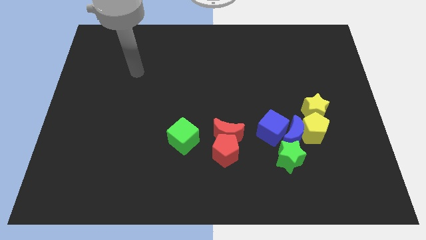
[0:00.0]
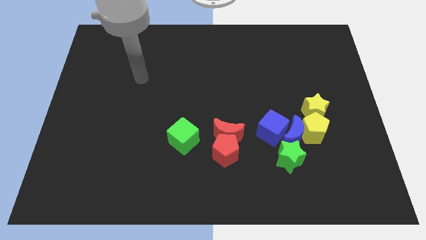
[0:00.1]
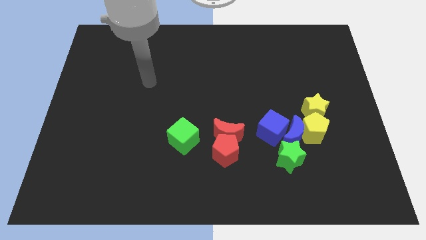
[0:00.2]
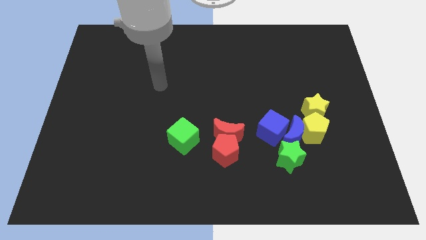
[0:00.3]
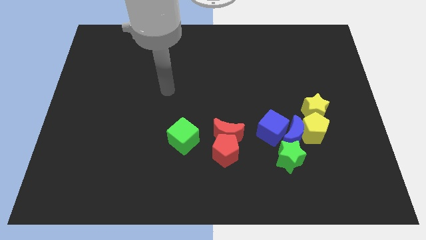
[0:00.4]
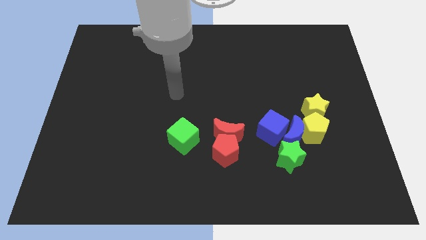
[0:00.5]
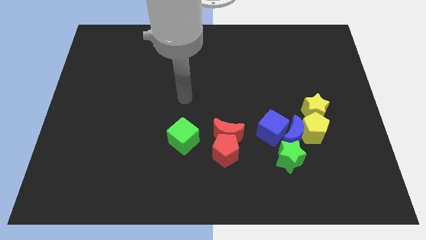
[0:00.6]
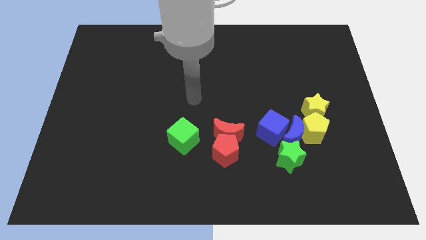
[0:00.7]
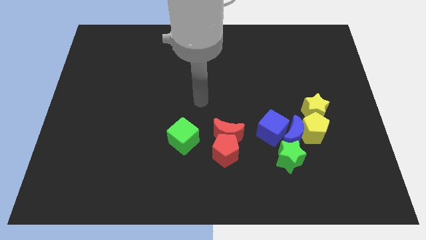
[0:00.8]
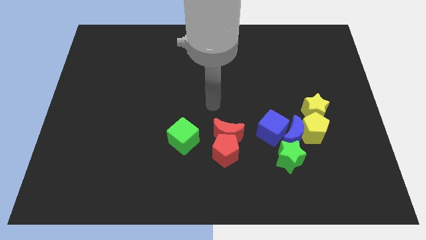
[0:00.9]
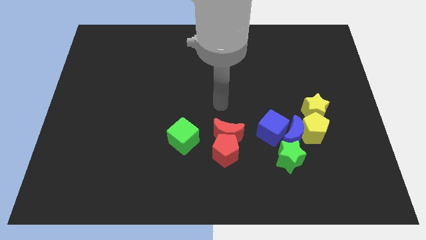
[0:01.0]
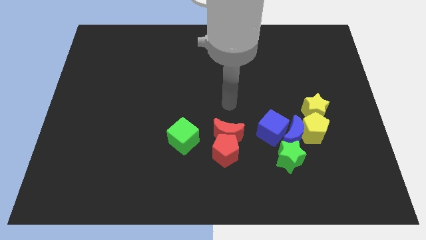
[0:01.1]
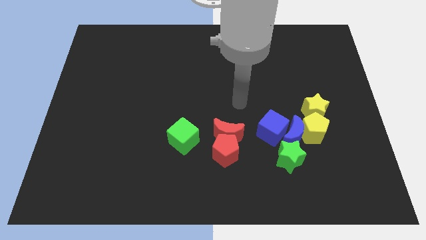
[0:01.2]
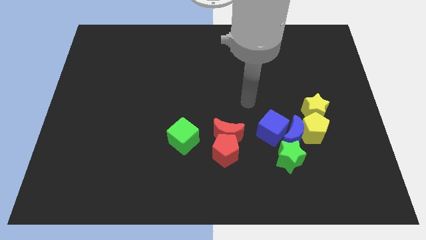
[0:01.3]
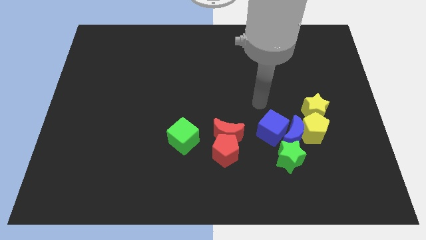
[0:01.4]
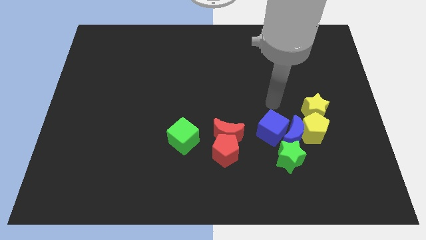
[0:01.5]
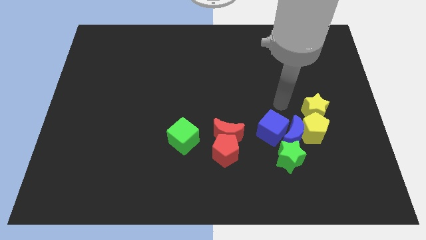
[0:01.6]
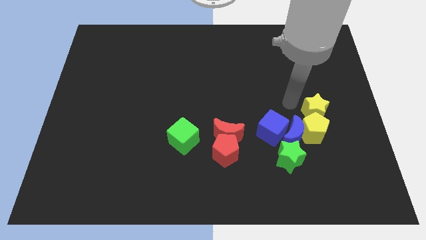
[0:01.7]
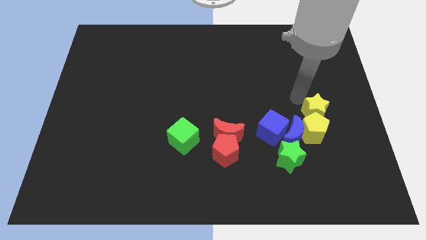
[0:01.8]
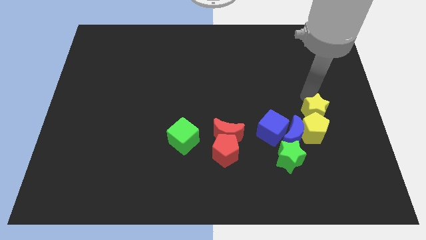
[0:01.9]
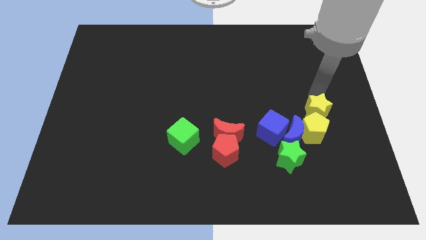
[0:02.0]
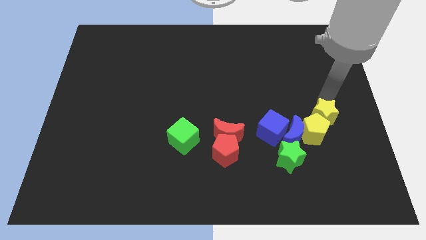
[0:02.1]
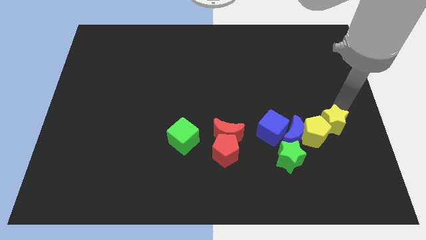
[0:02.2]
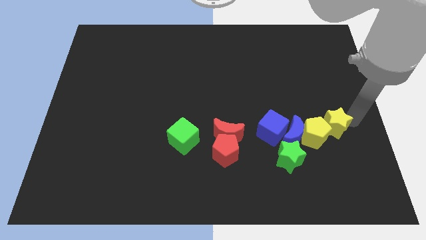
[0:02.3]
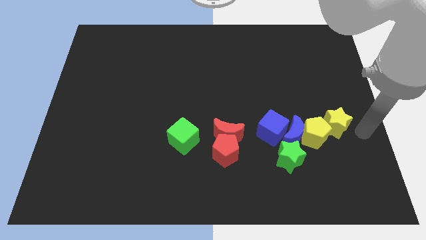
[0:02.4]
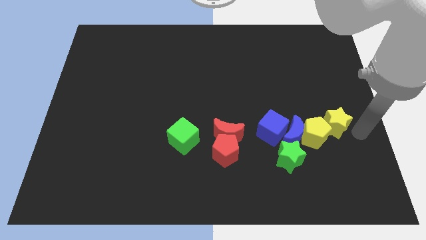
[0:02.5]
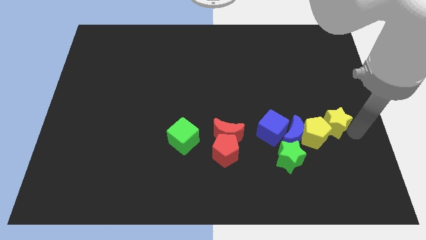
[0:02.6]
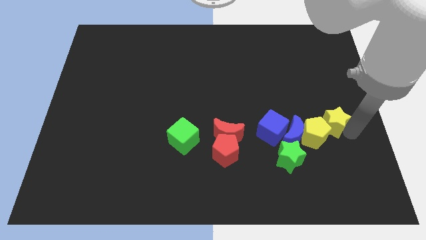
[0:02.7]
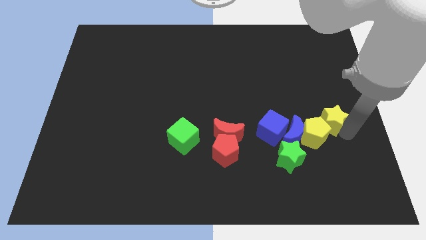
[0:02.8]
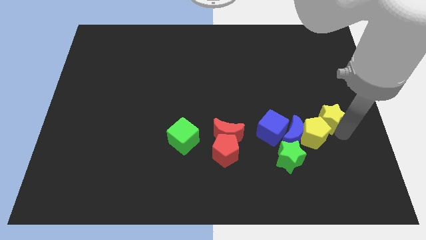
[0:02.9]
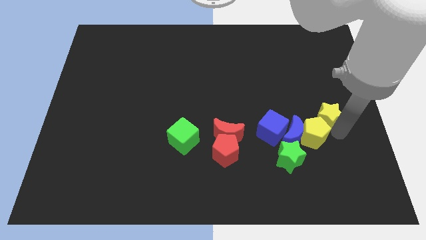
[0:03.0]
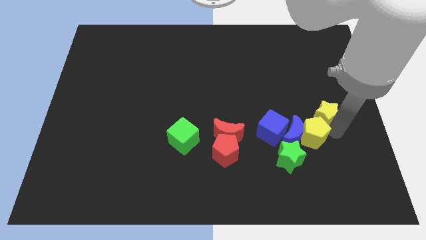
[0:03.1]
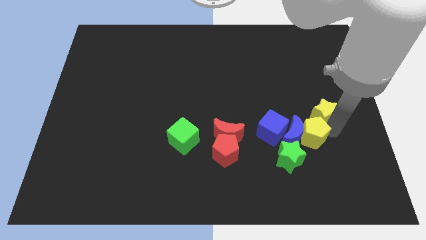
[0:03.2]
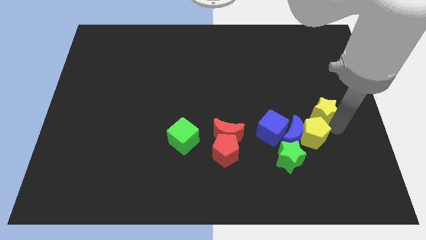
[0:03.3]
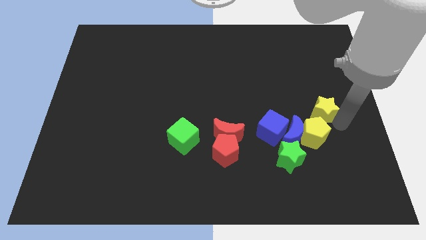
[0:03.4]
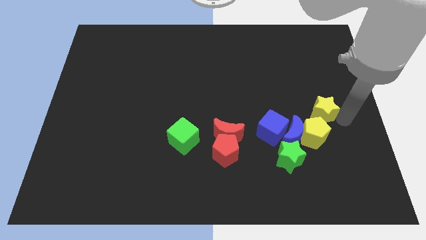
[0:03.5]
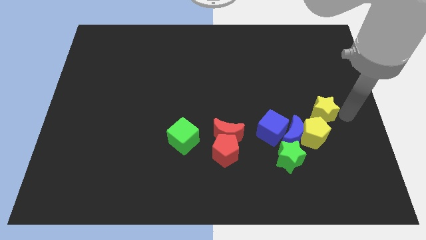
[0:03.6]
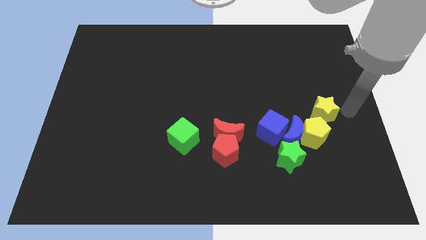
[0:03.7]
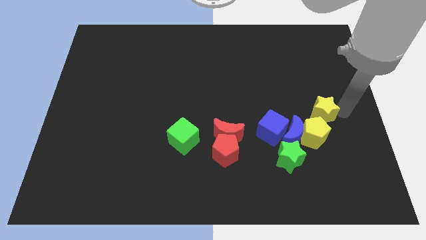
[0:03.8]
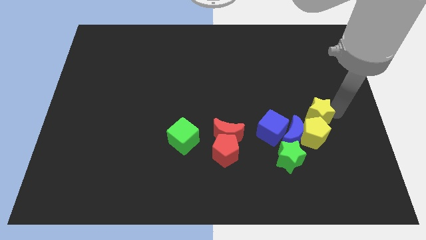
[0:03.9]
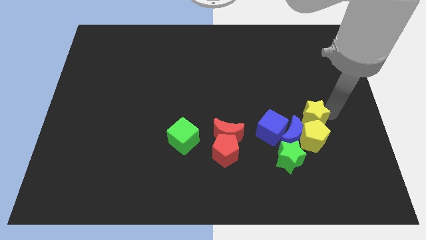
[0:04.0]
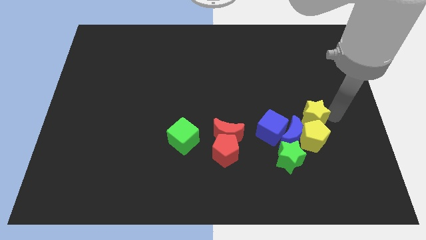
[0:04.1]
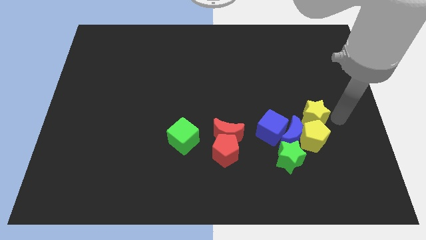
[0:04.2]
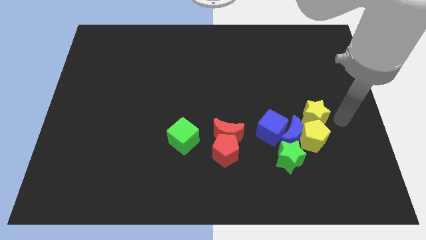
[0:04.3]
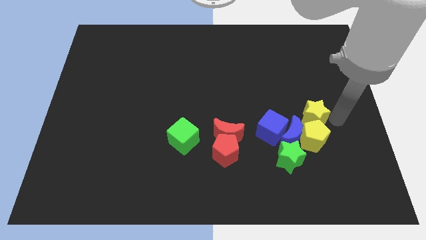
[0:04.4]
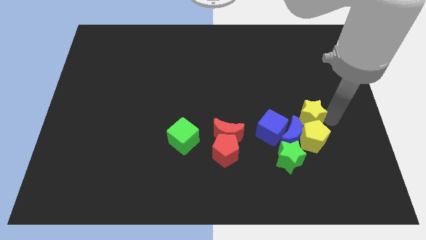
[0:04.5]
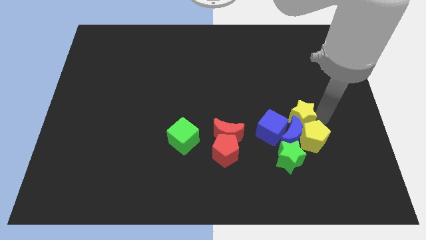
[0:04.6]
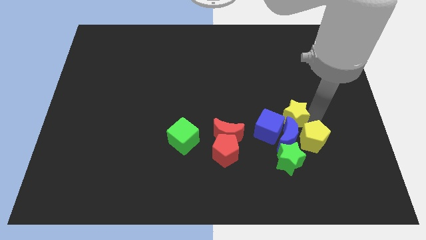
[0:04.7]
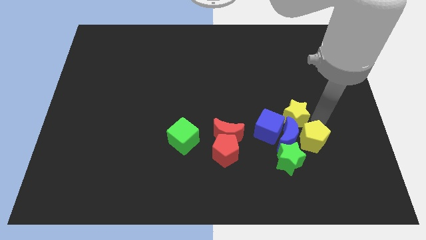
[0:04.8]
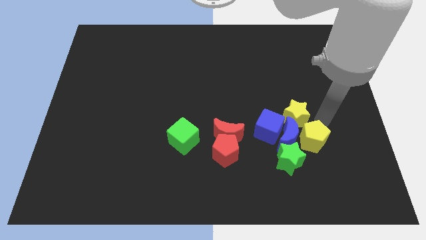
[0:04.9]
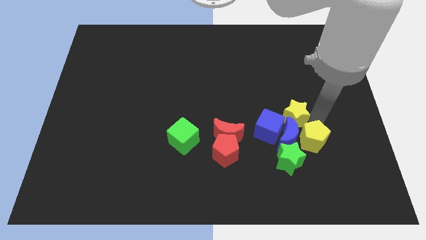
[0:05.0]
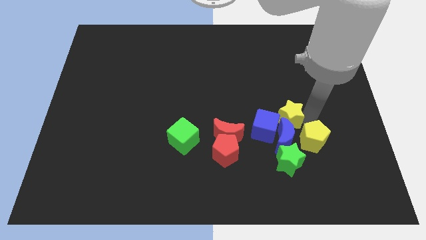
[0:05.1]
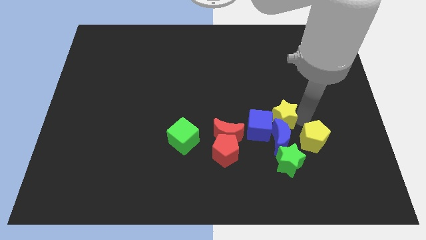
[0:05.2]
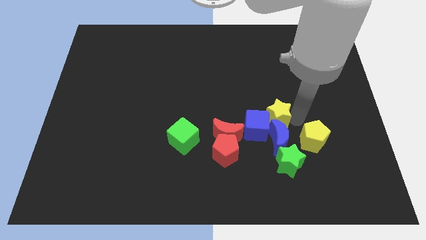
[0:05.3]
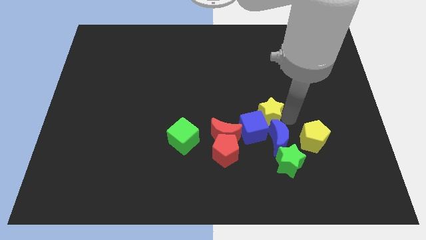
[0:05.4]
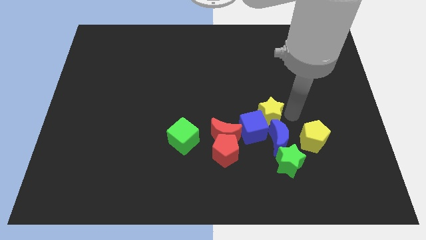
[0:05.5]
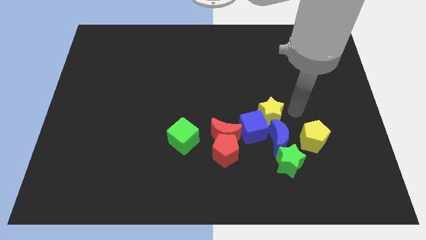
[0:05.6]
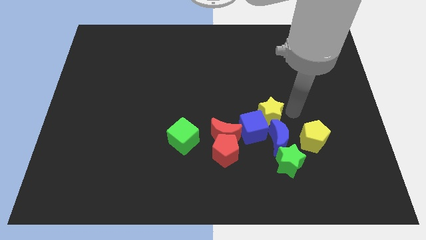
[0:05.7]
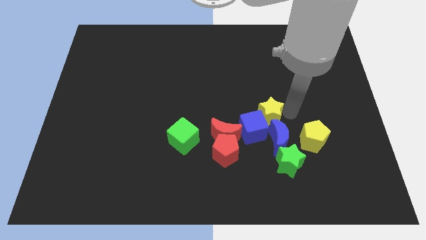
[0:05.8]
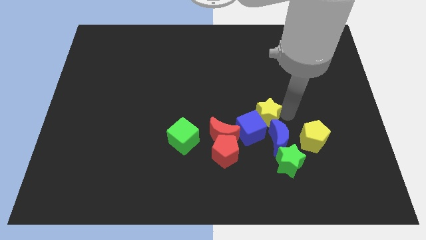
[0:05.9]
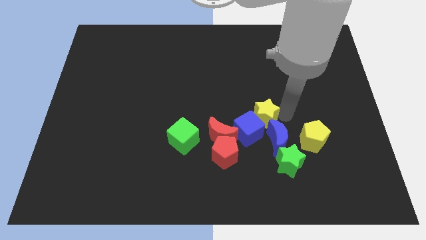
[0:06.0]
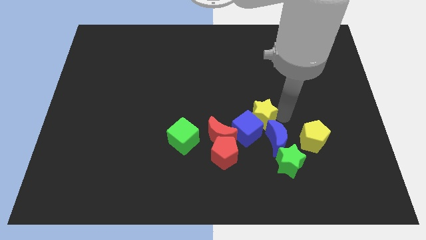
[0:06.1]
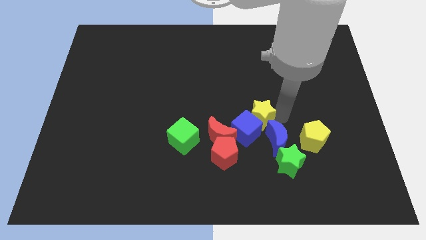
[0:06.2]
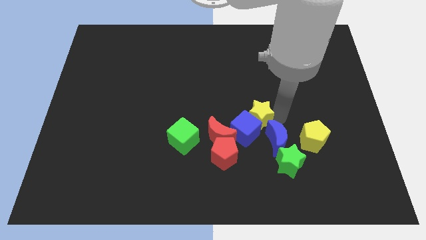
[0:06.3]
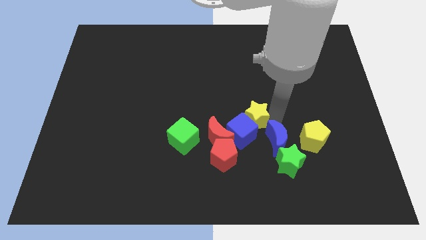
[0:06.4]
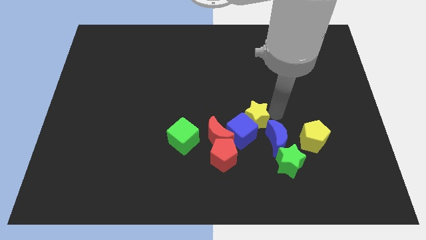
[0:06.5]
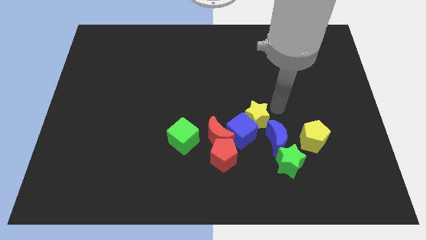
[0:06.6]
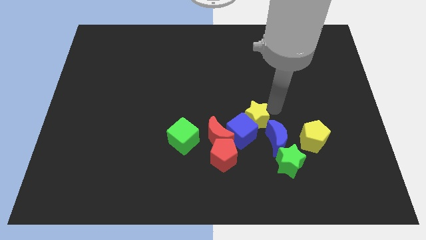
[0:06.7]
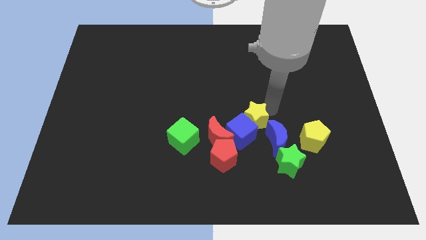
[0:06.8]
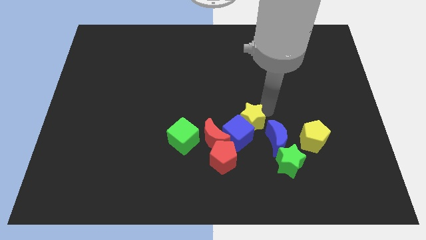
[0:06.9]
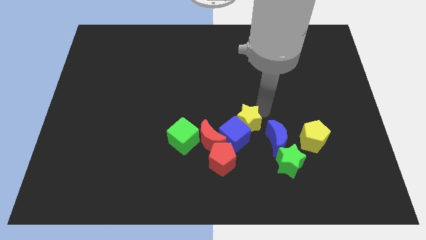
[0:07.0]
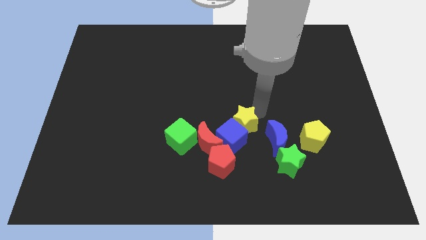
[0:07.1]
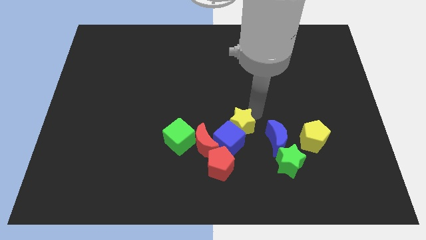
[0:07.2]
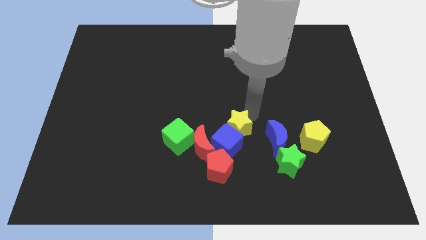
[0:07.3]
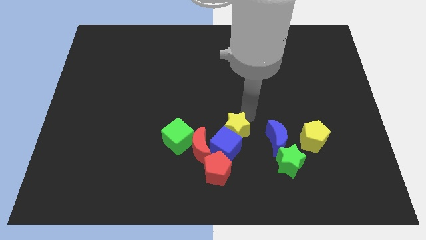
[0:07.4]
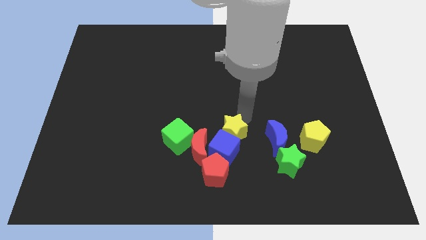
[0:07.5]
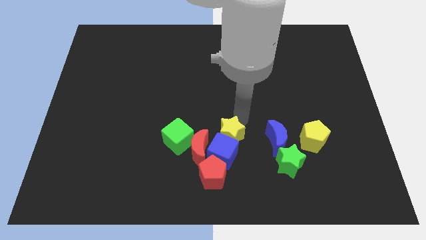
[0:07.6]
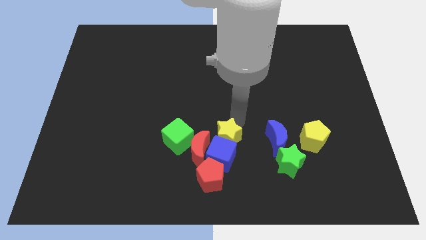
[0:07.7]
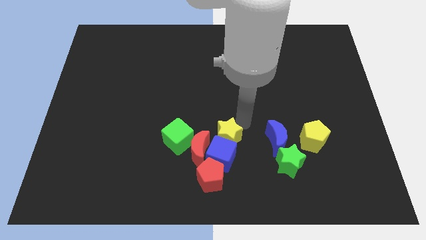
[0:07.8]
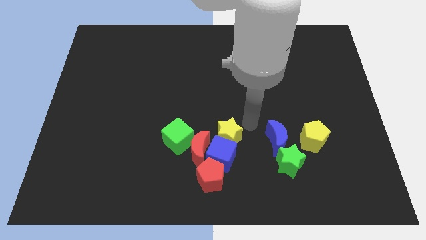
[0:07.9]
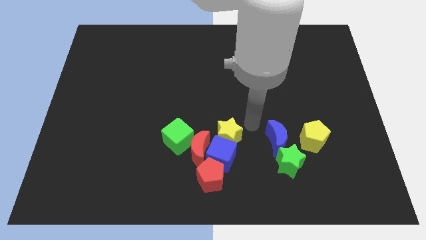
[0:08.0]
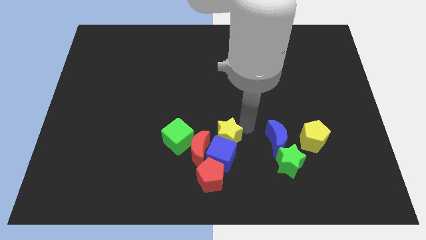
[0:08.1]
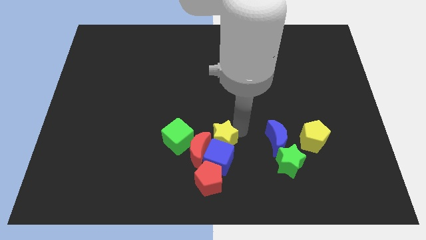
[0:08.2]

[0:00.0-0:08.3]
move the yellow star next to the red moon
